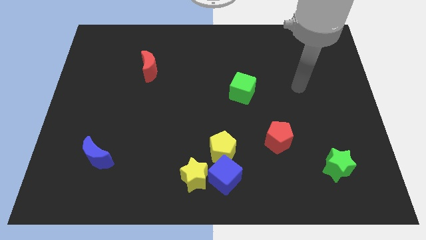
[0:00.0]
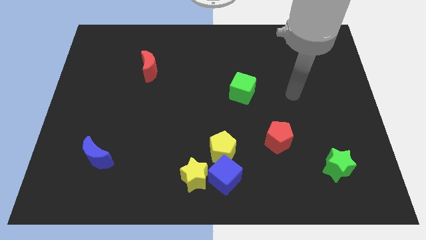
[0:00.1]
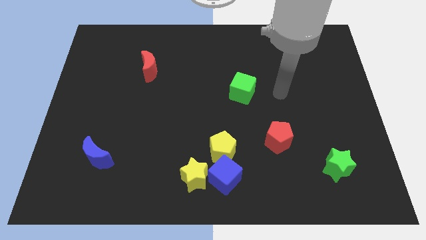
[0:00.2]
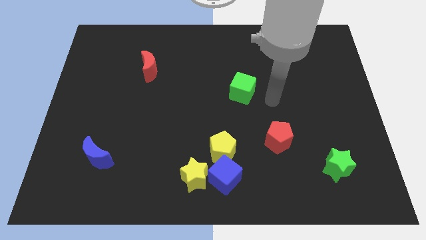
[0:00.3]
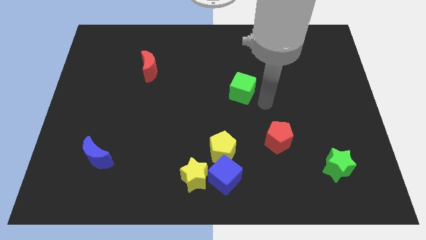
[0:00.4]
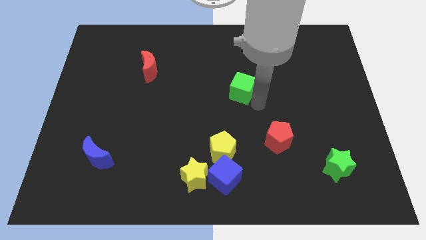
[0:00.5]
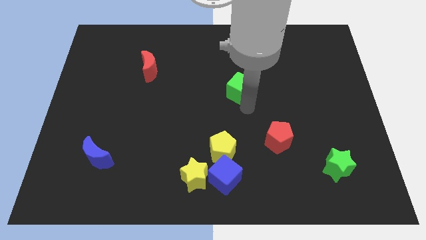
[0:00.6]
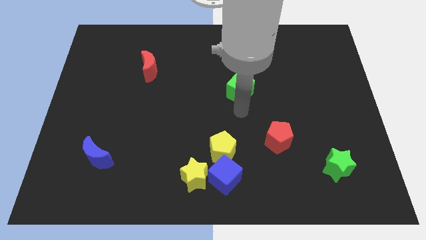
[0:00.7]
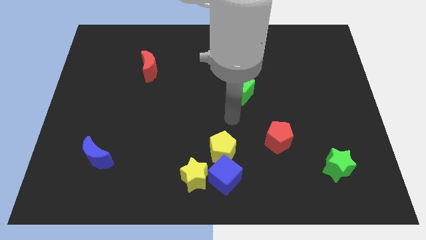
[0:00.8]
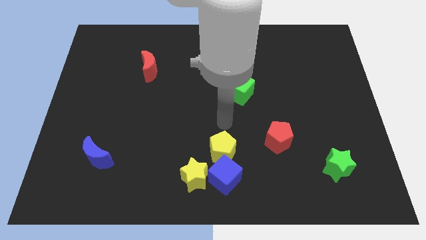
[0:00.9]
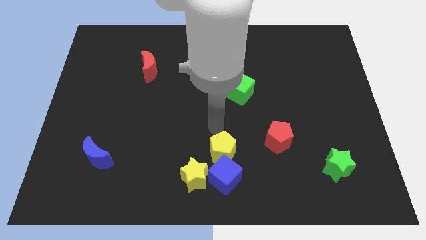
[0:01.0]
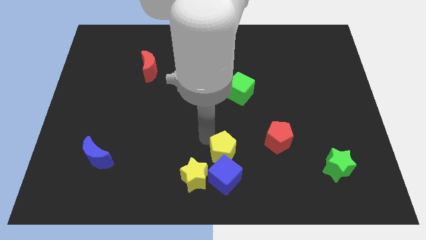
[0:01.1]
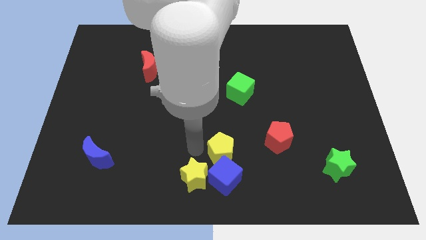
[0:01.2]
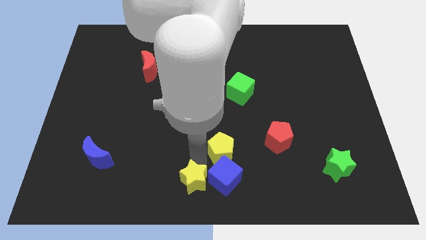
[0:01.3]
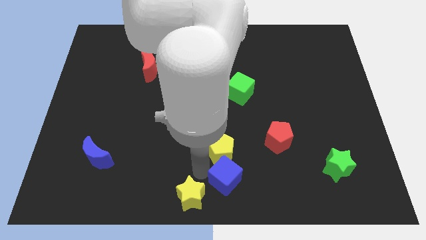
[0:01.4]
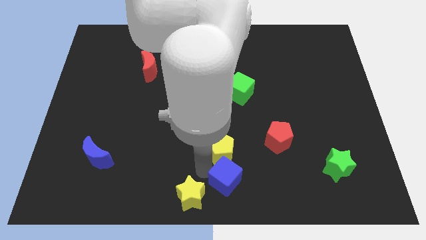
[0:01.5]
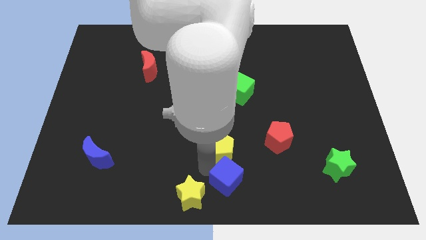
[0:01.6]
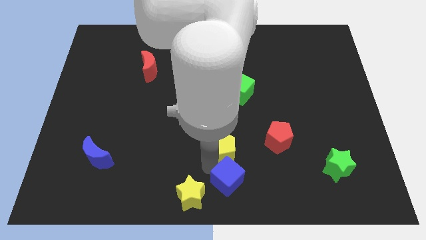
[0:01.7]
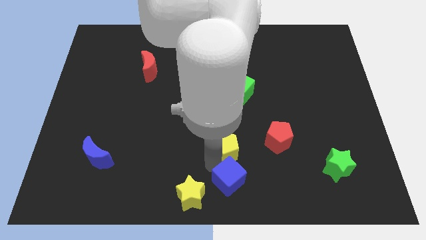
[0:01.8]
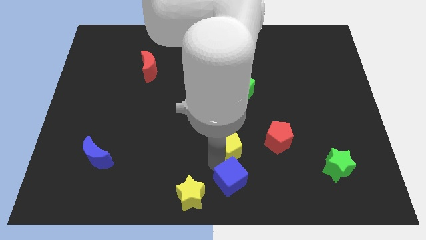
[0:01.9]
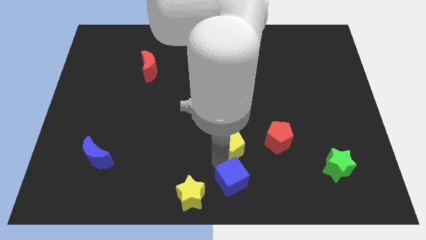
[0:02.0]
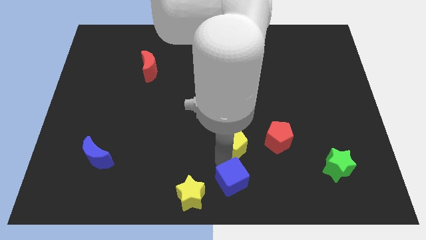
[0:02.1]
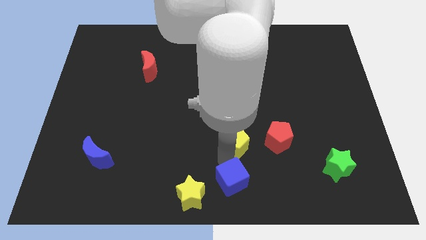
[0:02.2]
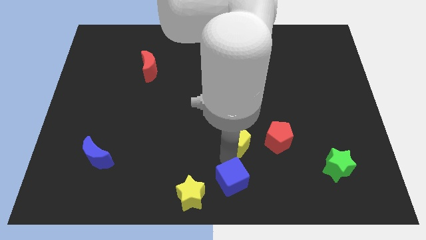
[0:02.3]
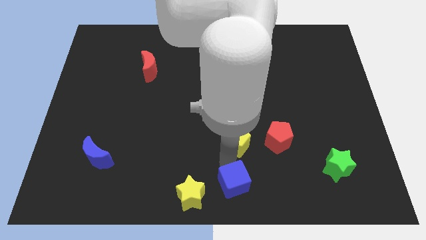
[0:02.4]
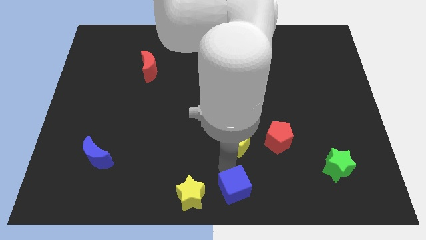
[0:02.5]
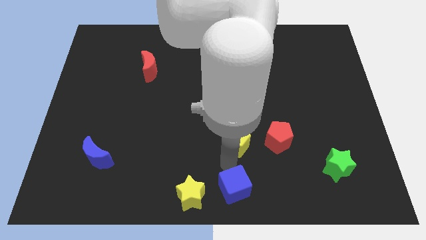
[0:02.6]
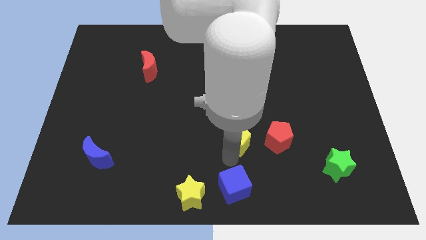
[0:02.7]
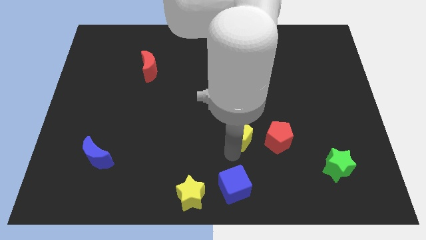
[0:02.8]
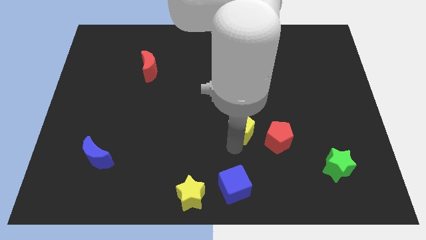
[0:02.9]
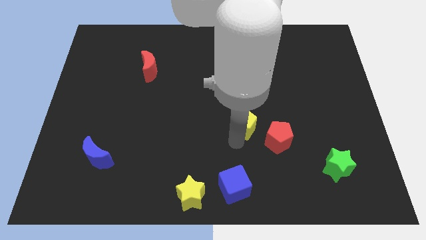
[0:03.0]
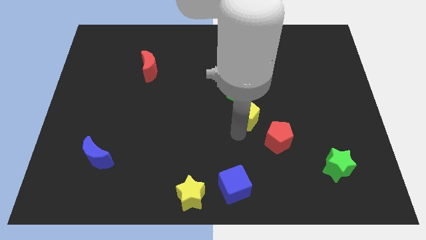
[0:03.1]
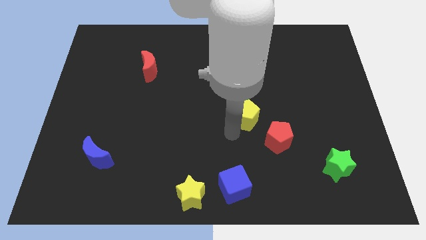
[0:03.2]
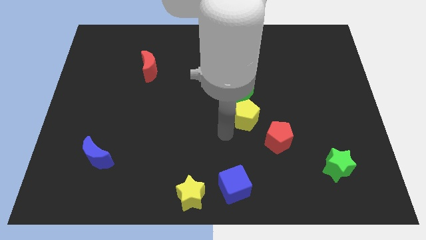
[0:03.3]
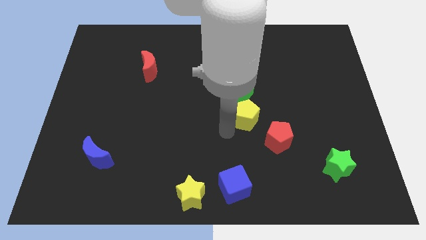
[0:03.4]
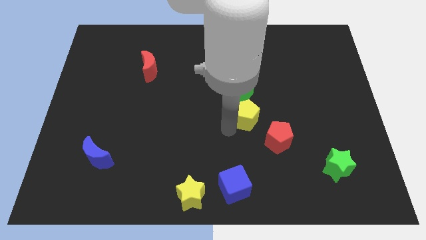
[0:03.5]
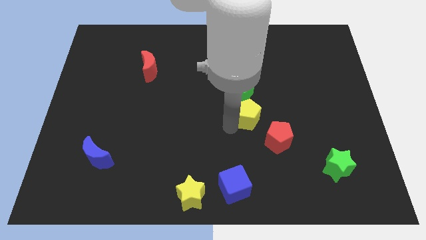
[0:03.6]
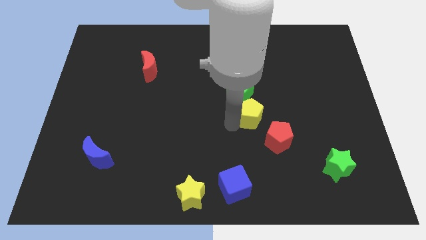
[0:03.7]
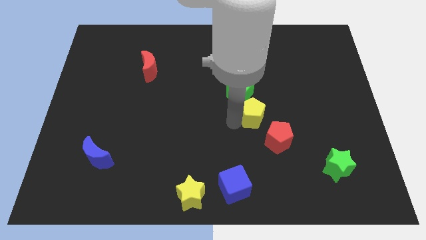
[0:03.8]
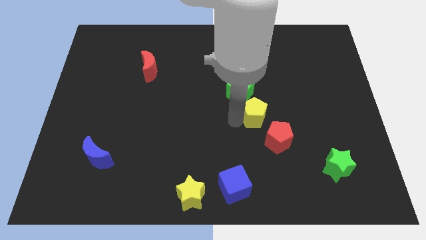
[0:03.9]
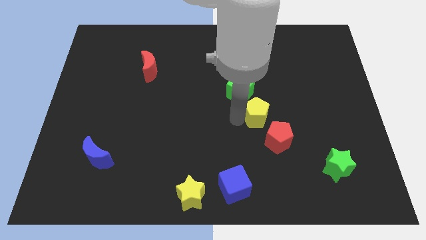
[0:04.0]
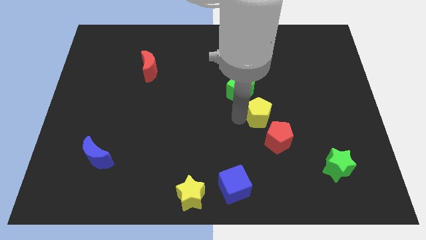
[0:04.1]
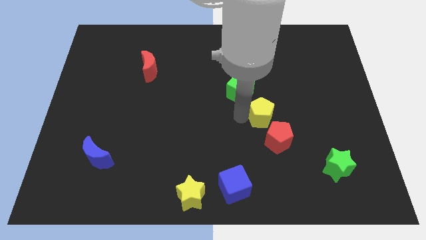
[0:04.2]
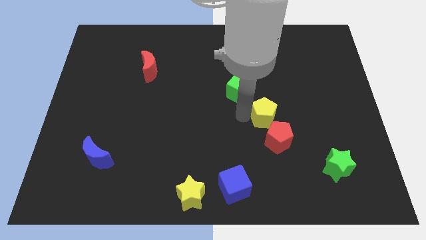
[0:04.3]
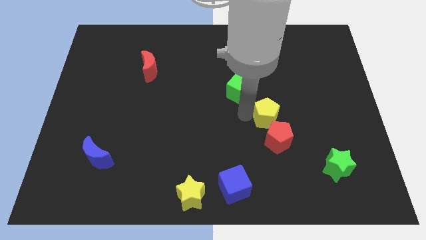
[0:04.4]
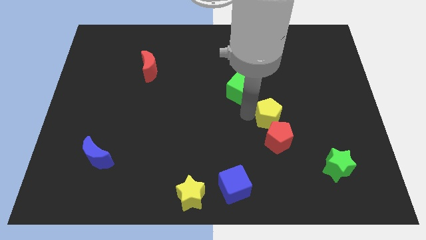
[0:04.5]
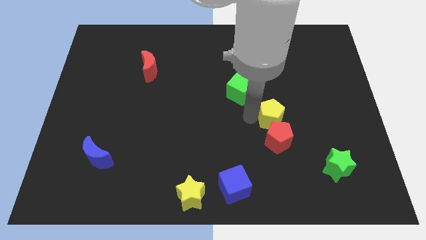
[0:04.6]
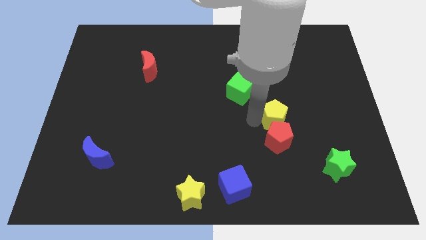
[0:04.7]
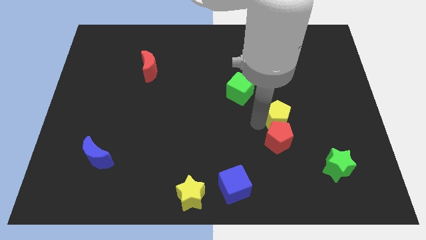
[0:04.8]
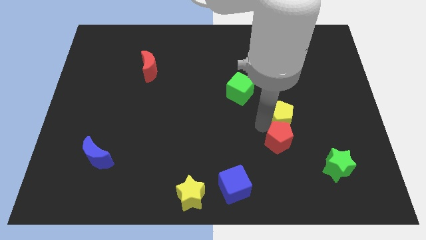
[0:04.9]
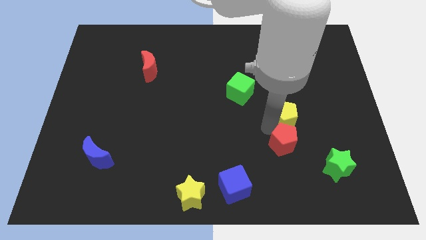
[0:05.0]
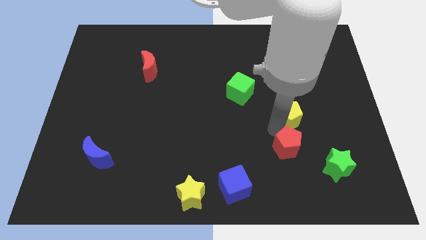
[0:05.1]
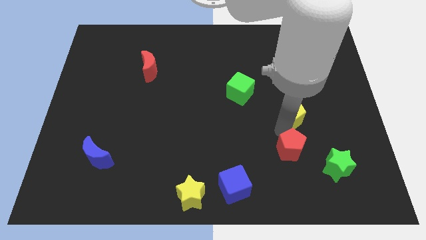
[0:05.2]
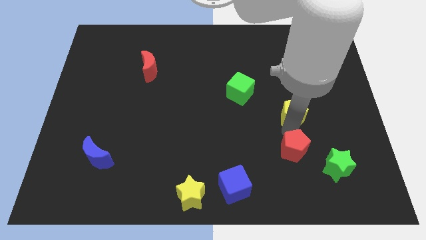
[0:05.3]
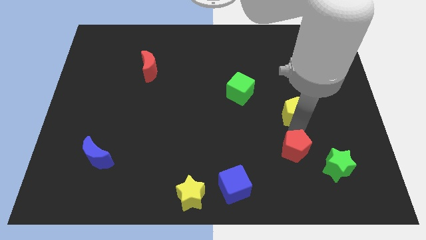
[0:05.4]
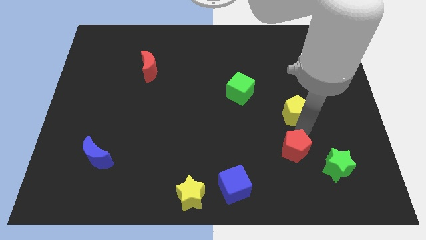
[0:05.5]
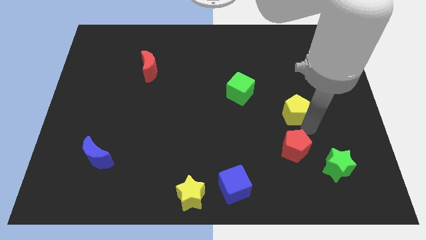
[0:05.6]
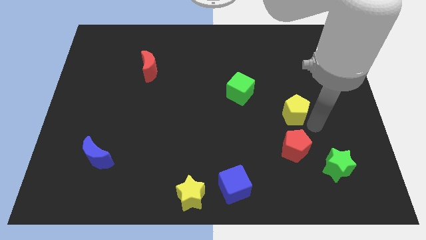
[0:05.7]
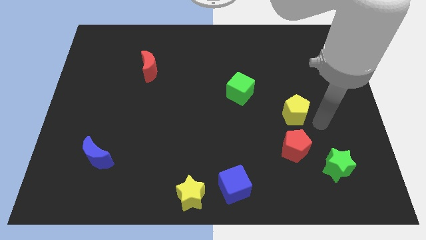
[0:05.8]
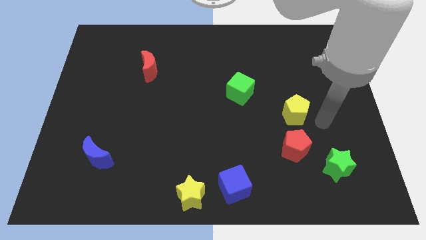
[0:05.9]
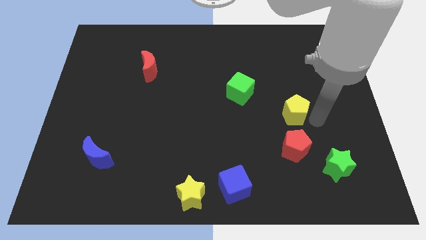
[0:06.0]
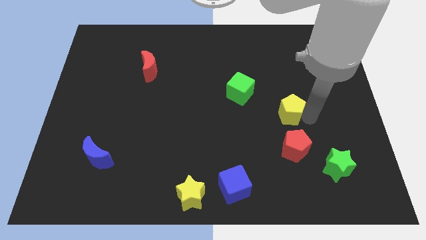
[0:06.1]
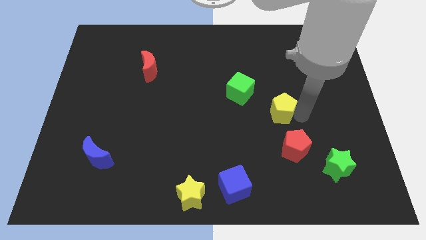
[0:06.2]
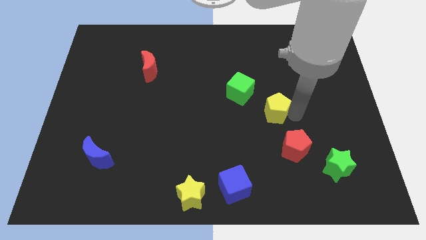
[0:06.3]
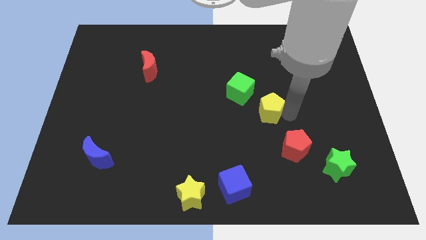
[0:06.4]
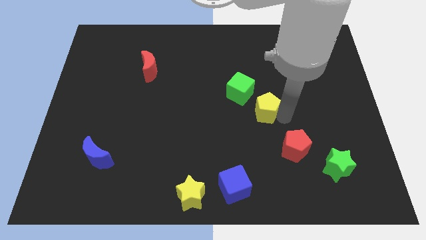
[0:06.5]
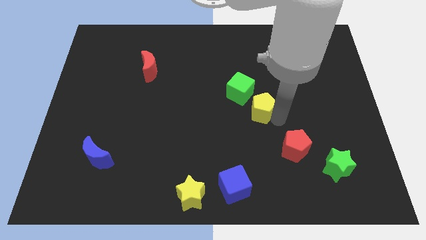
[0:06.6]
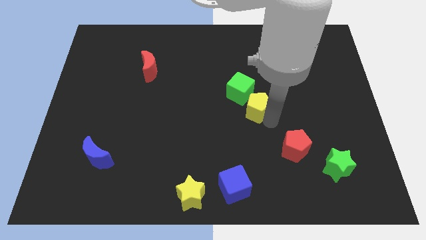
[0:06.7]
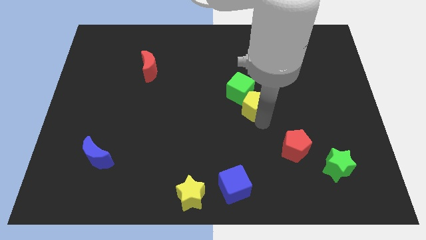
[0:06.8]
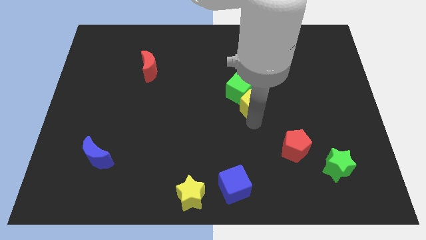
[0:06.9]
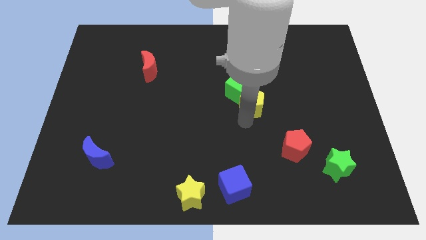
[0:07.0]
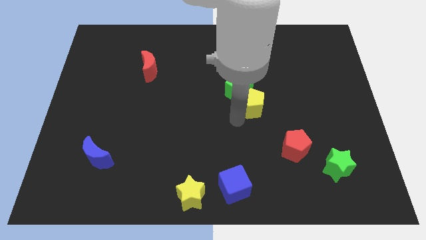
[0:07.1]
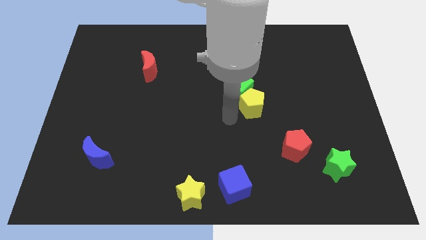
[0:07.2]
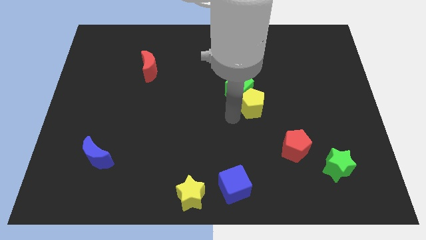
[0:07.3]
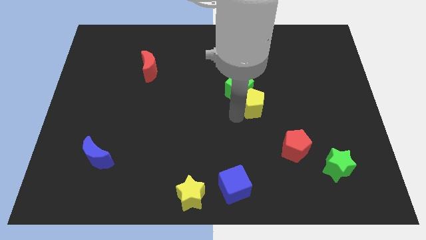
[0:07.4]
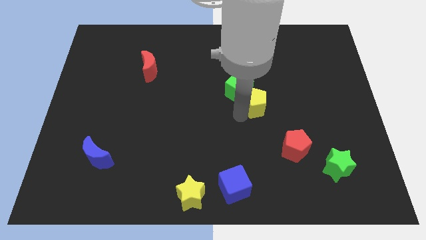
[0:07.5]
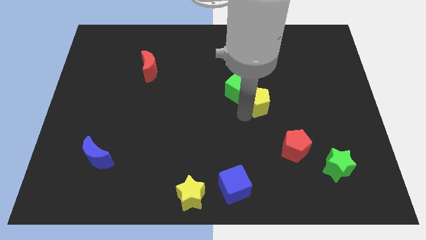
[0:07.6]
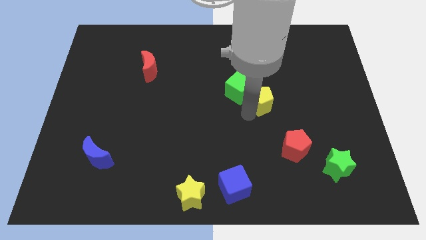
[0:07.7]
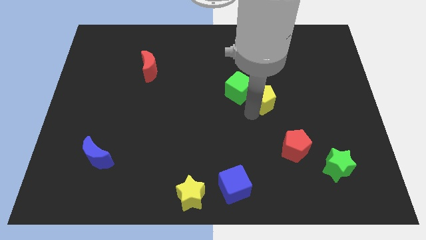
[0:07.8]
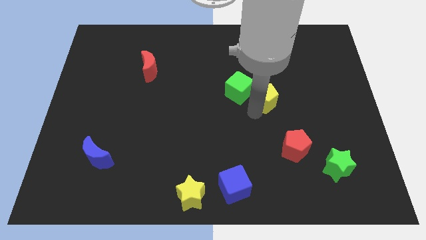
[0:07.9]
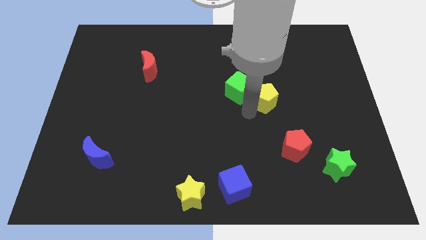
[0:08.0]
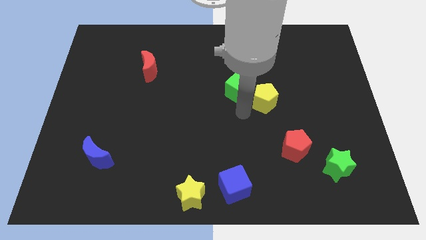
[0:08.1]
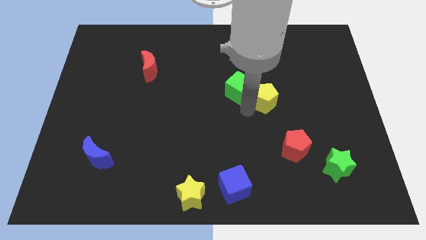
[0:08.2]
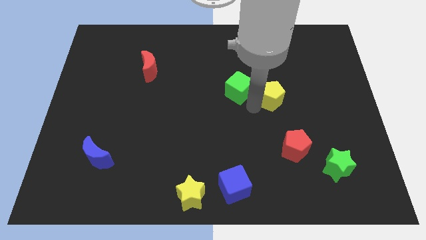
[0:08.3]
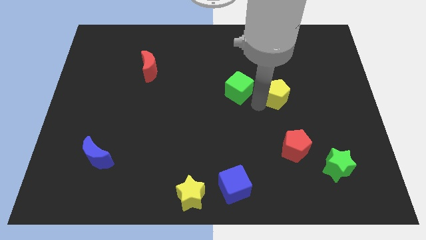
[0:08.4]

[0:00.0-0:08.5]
push the yellow pentagon upwards and then right
